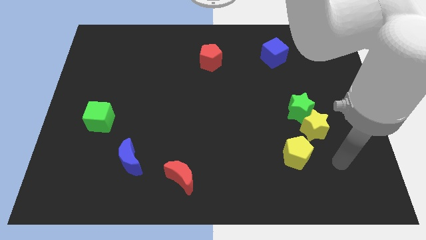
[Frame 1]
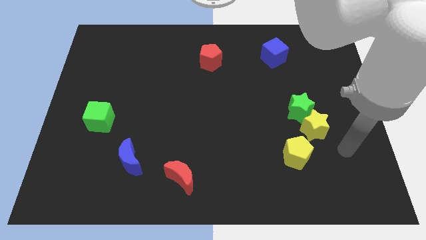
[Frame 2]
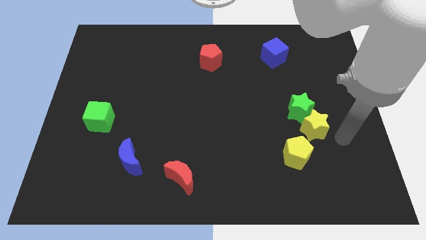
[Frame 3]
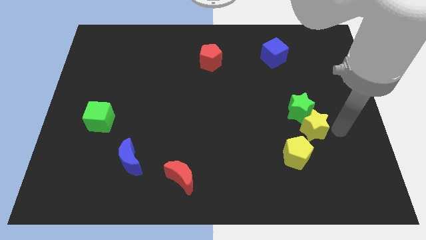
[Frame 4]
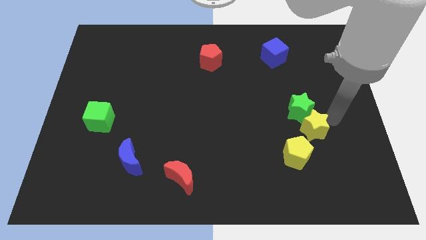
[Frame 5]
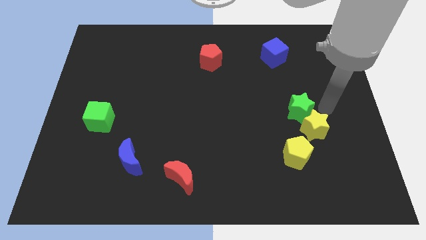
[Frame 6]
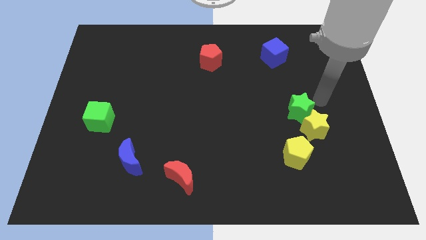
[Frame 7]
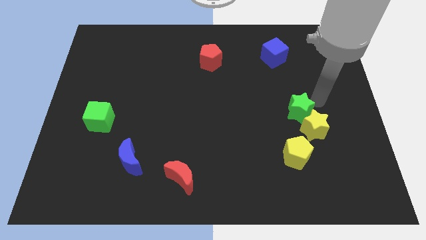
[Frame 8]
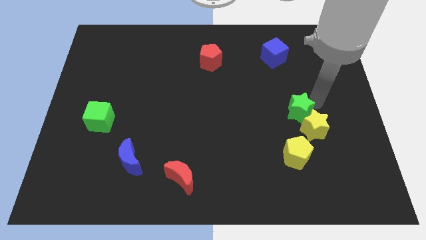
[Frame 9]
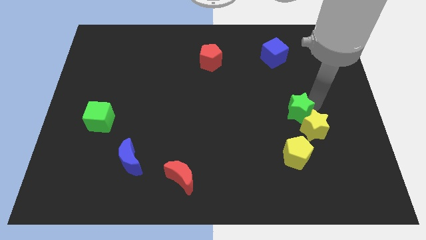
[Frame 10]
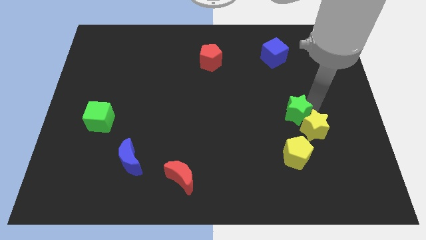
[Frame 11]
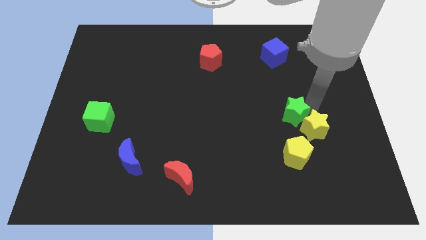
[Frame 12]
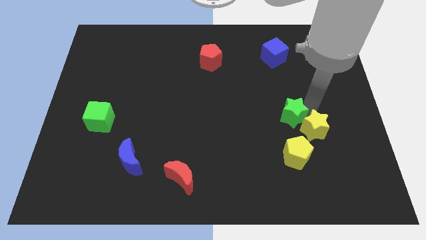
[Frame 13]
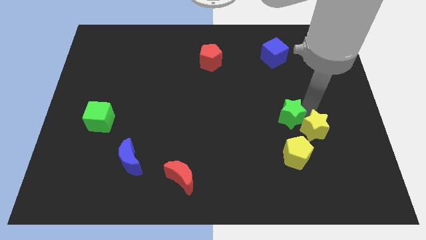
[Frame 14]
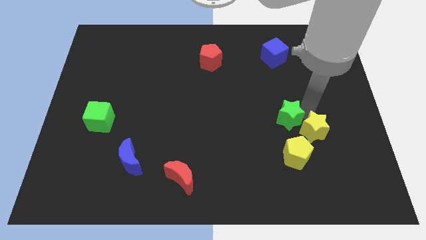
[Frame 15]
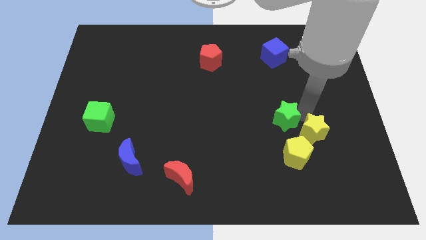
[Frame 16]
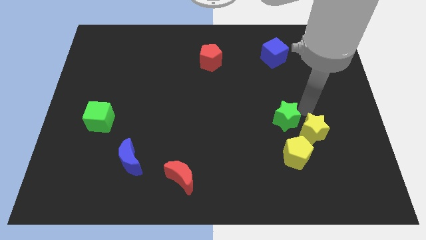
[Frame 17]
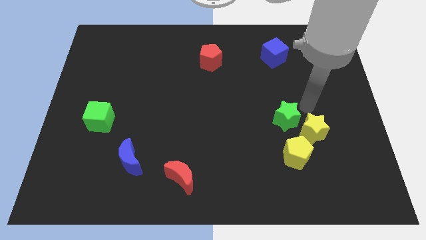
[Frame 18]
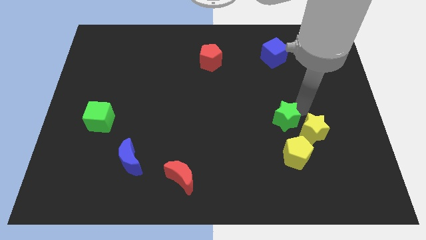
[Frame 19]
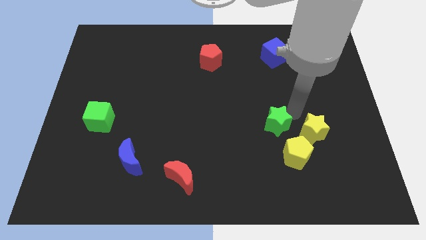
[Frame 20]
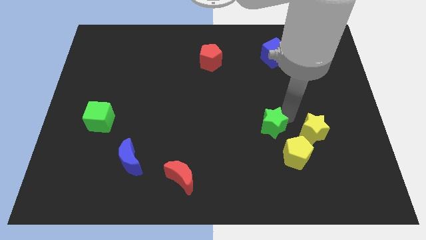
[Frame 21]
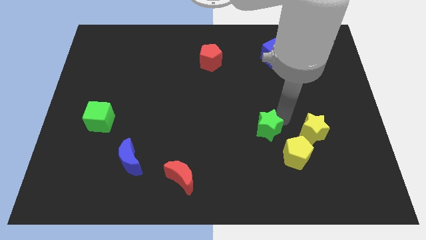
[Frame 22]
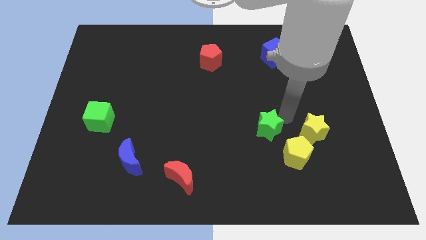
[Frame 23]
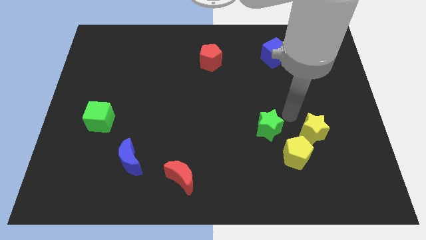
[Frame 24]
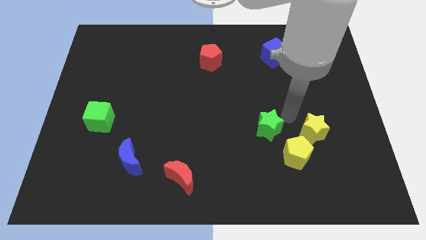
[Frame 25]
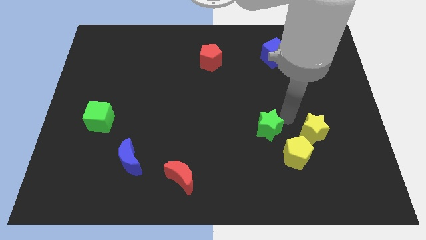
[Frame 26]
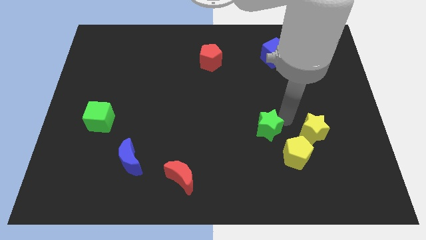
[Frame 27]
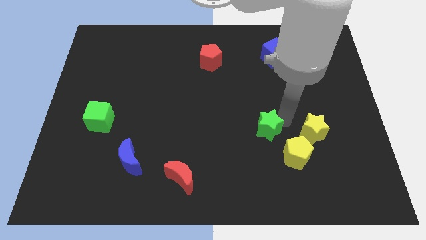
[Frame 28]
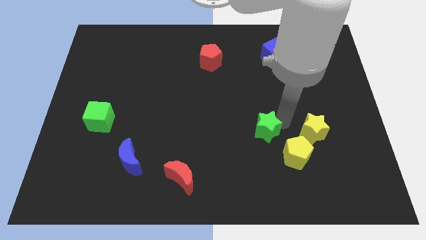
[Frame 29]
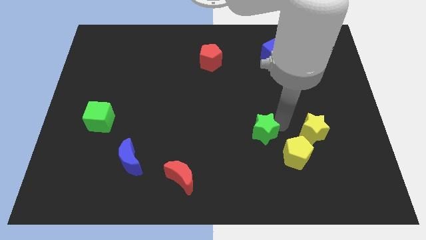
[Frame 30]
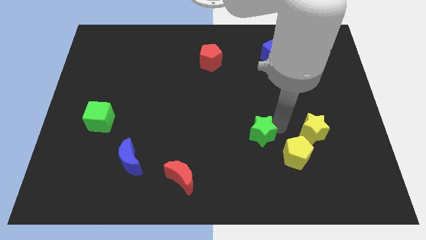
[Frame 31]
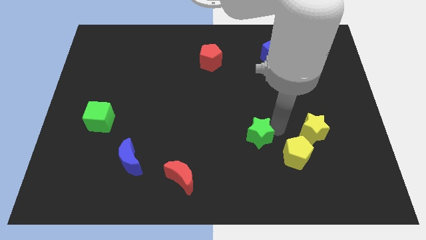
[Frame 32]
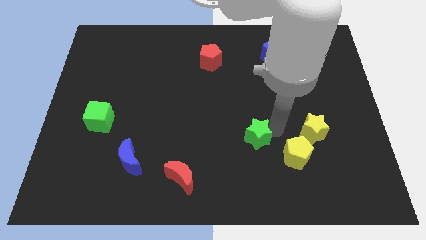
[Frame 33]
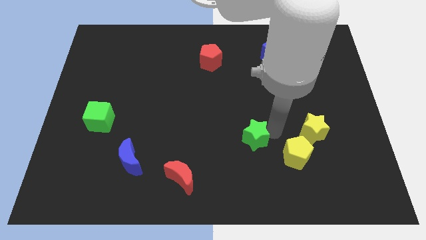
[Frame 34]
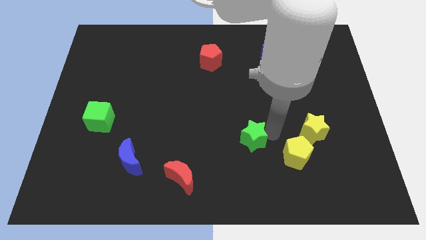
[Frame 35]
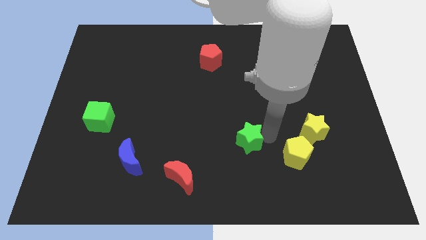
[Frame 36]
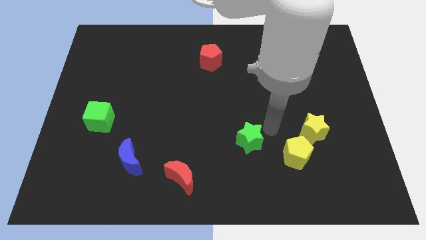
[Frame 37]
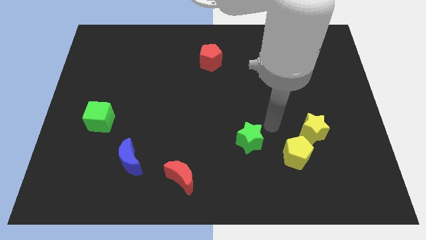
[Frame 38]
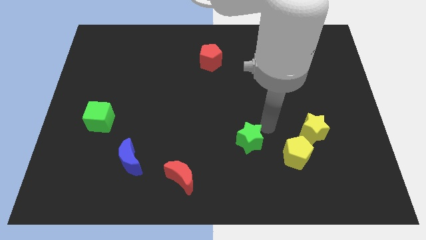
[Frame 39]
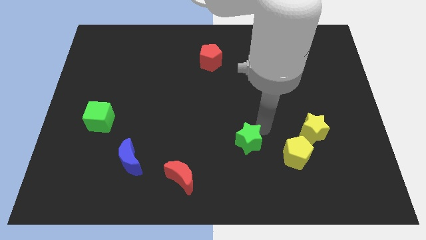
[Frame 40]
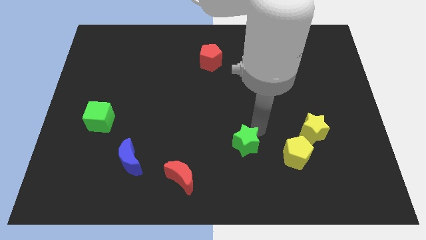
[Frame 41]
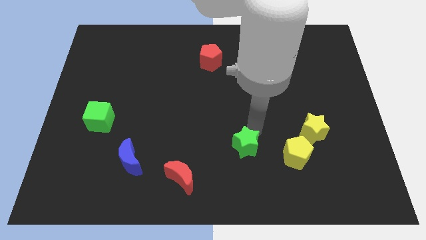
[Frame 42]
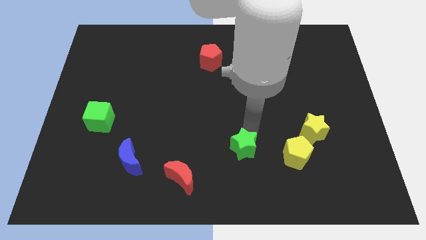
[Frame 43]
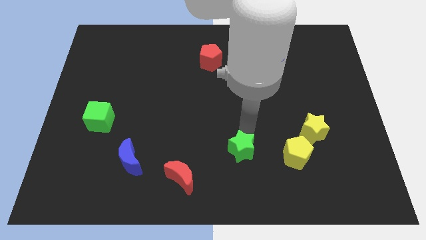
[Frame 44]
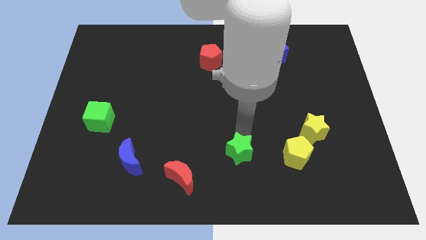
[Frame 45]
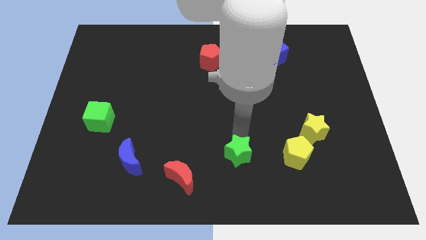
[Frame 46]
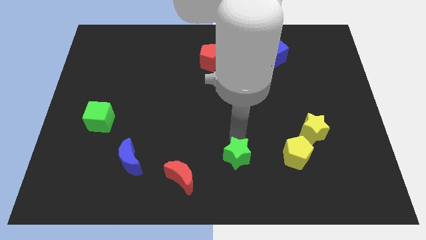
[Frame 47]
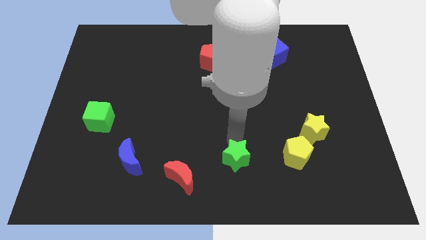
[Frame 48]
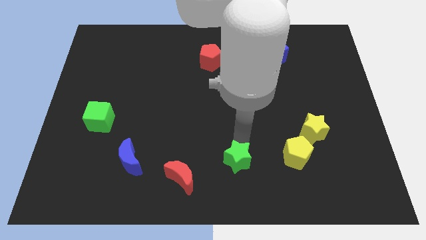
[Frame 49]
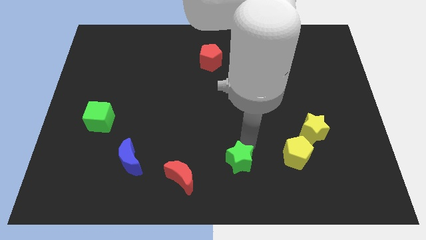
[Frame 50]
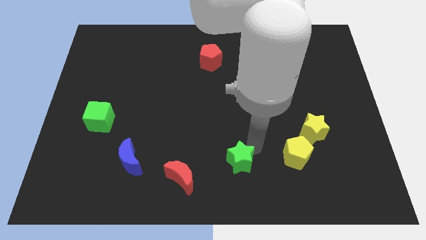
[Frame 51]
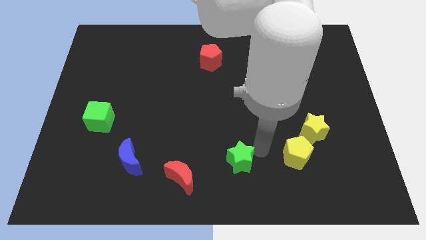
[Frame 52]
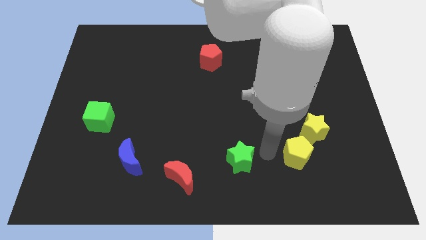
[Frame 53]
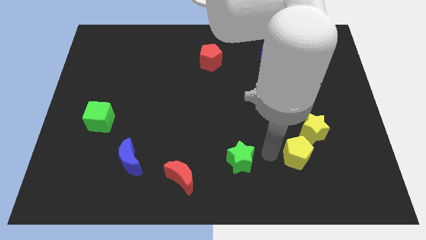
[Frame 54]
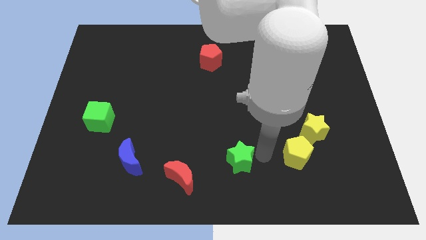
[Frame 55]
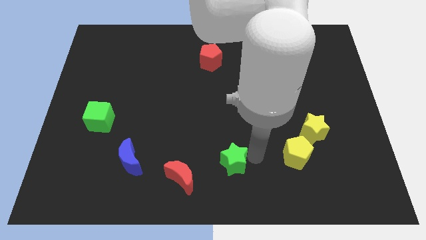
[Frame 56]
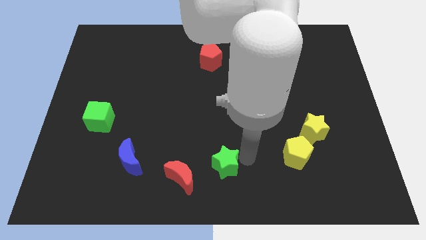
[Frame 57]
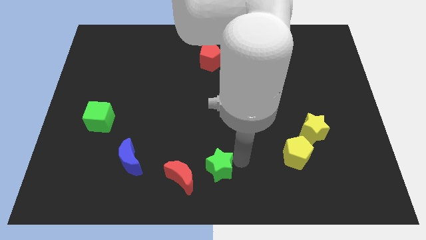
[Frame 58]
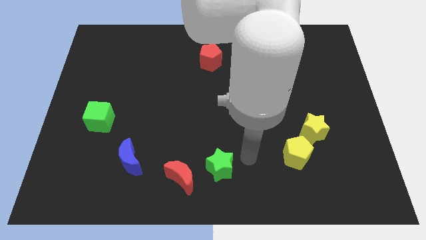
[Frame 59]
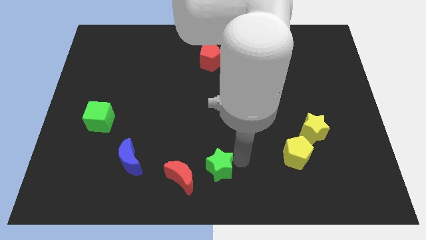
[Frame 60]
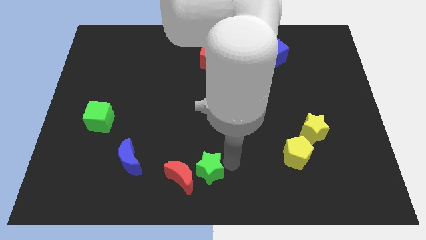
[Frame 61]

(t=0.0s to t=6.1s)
slide the green star close to the red moon
